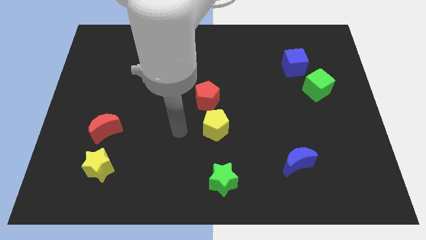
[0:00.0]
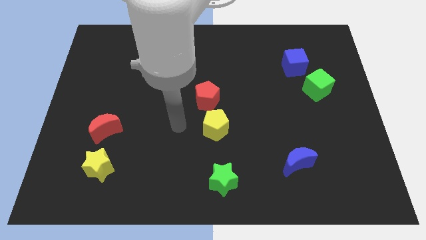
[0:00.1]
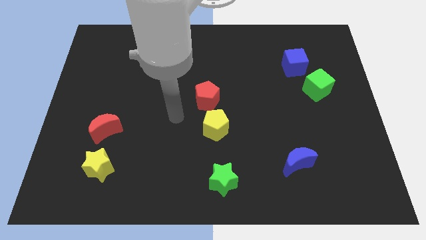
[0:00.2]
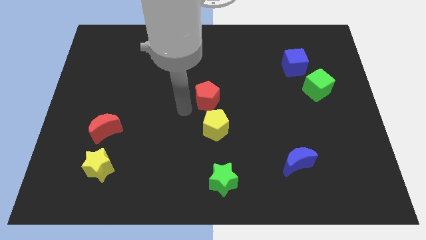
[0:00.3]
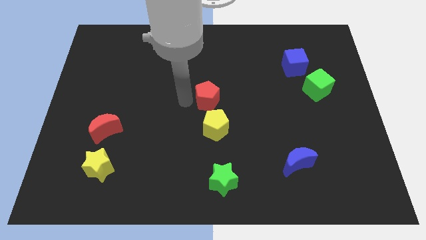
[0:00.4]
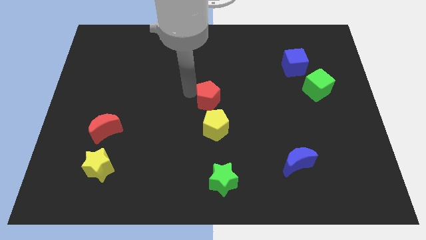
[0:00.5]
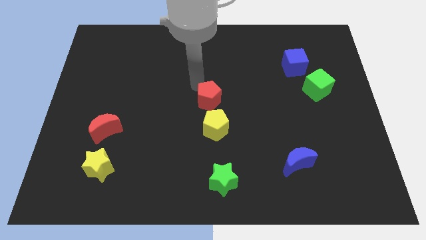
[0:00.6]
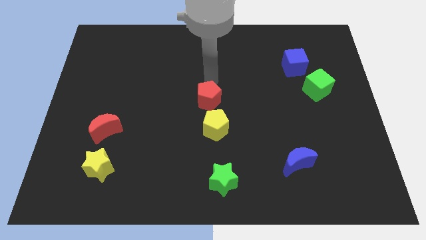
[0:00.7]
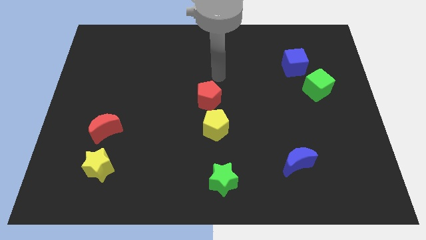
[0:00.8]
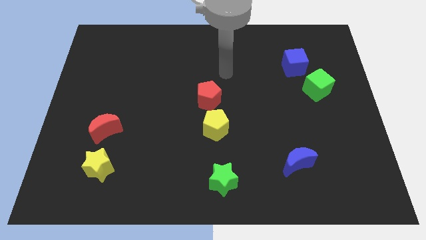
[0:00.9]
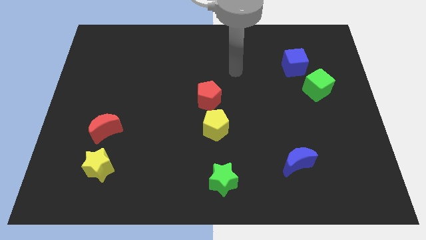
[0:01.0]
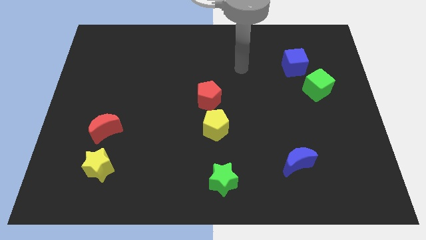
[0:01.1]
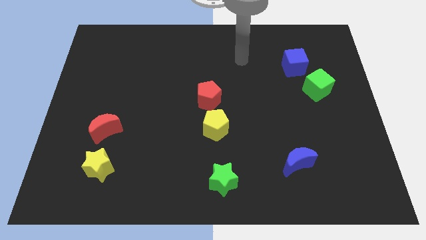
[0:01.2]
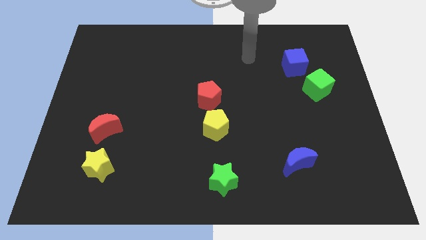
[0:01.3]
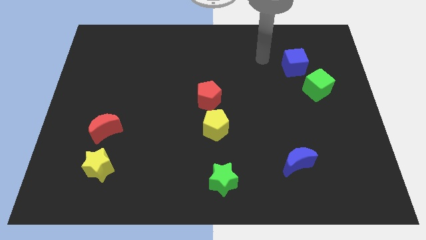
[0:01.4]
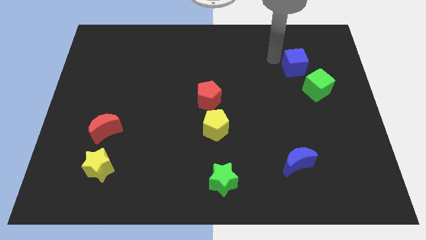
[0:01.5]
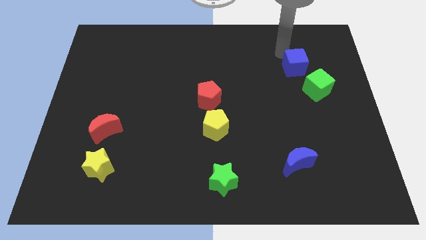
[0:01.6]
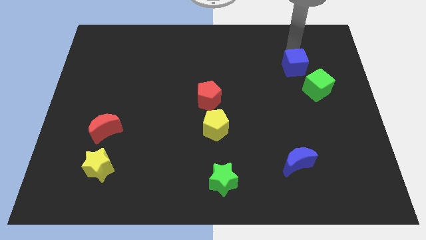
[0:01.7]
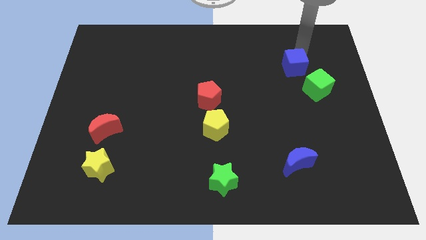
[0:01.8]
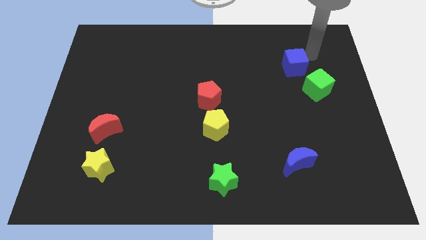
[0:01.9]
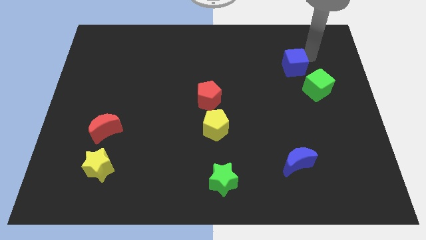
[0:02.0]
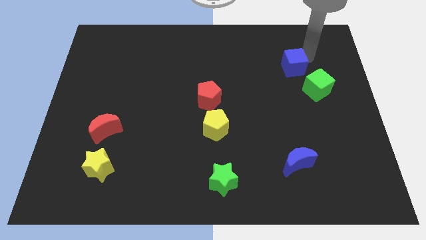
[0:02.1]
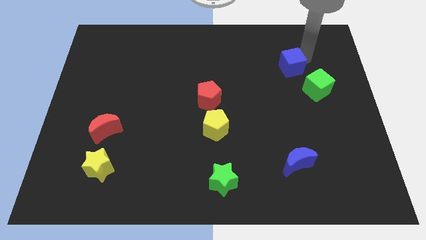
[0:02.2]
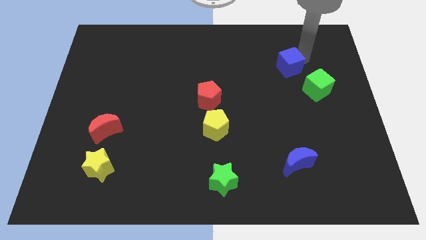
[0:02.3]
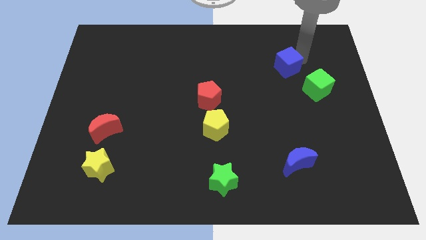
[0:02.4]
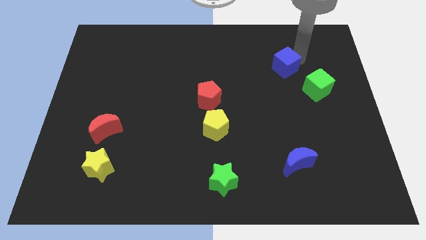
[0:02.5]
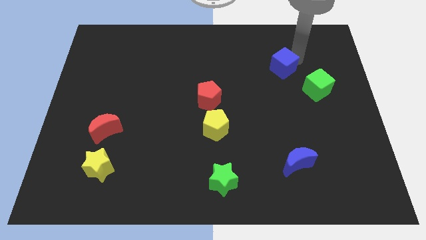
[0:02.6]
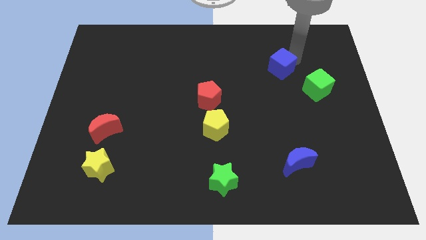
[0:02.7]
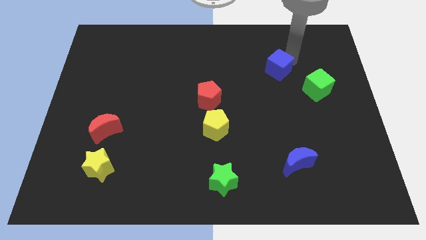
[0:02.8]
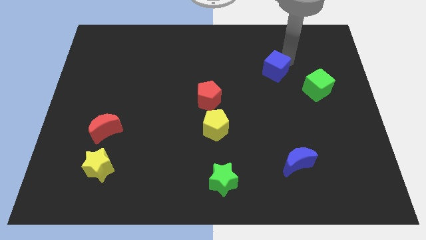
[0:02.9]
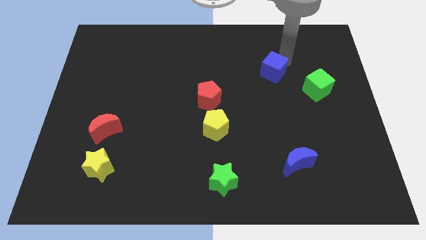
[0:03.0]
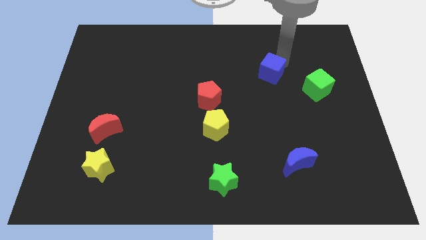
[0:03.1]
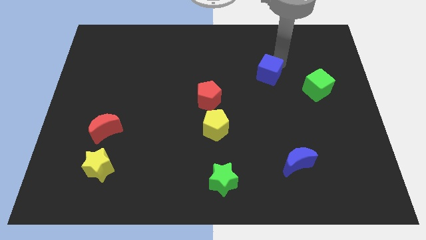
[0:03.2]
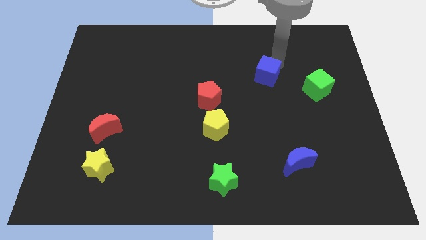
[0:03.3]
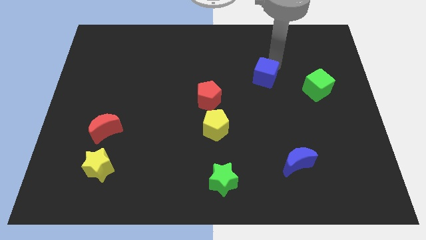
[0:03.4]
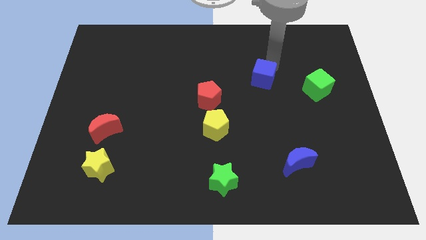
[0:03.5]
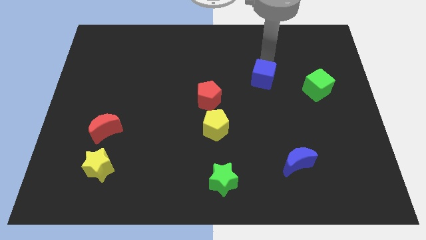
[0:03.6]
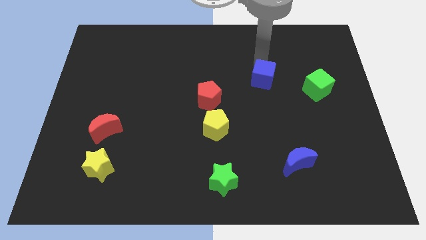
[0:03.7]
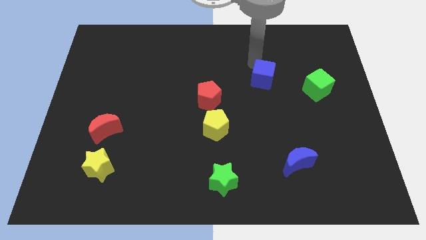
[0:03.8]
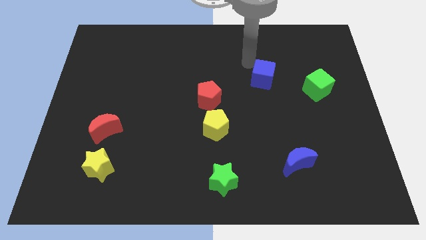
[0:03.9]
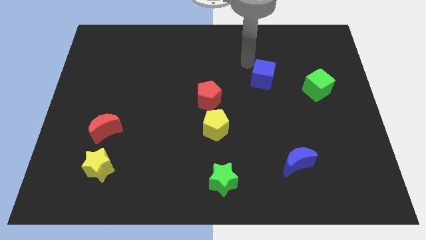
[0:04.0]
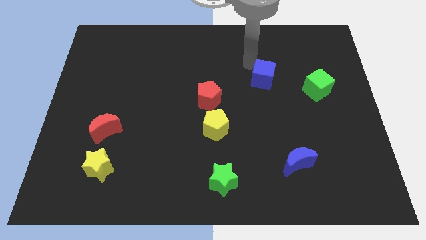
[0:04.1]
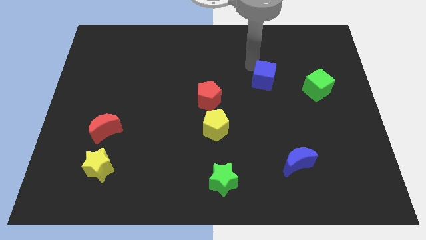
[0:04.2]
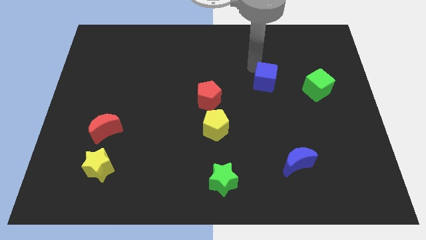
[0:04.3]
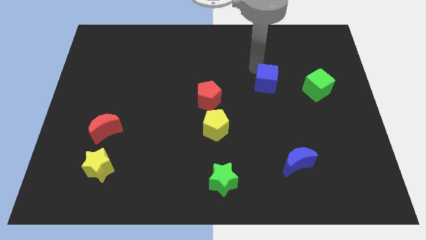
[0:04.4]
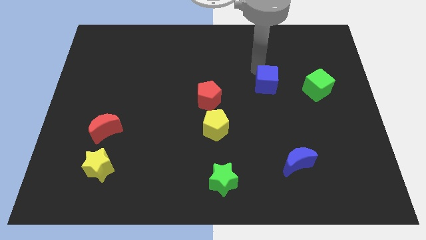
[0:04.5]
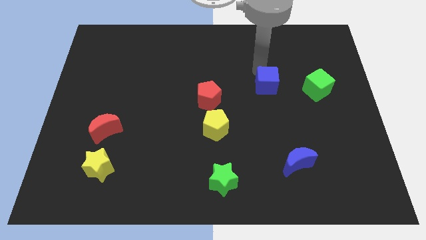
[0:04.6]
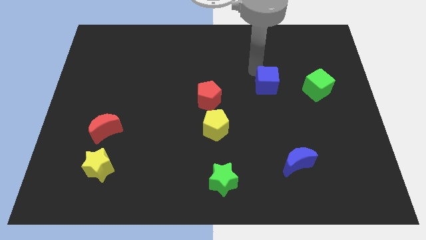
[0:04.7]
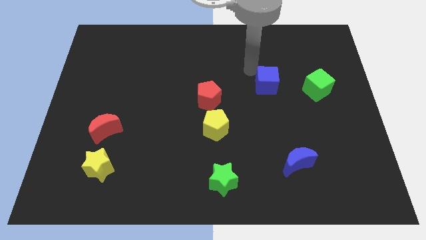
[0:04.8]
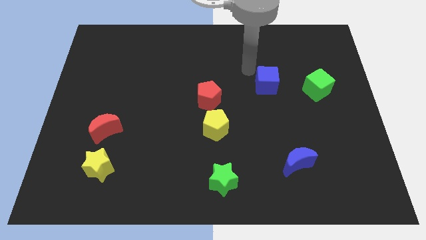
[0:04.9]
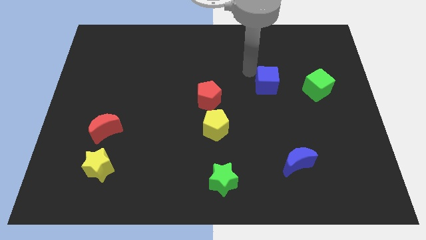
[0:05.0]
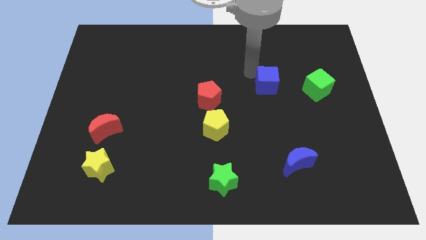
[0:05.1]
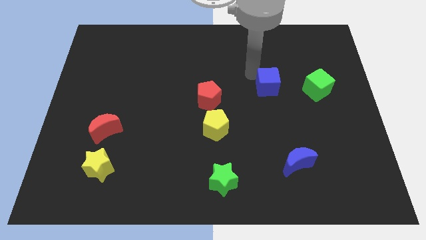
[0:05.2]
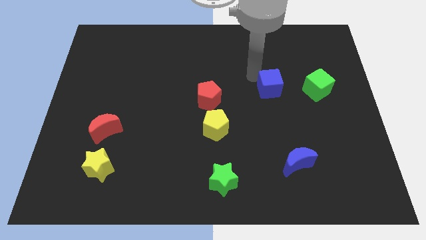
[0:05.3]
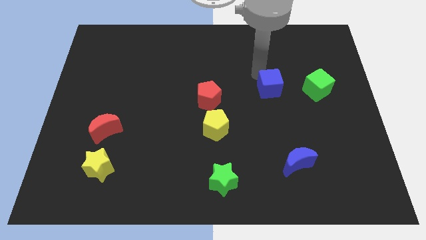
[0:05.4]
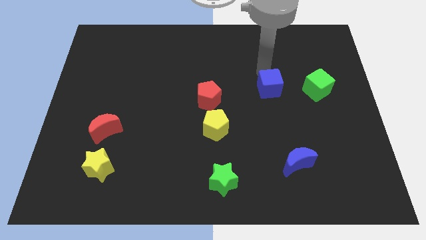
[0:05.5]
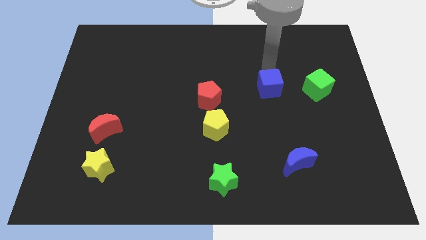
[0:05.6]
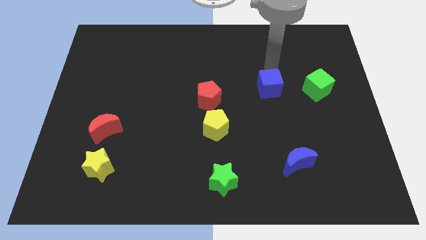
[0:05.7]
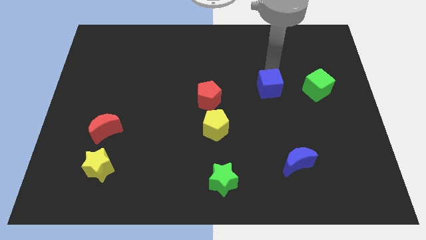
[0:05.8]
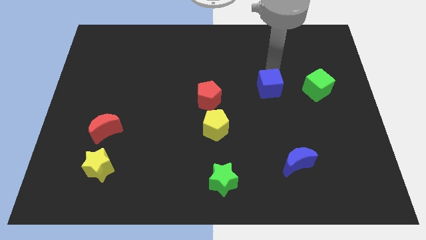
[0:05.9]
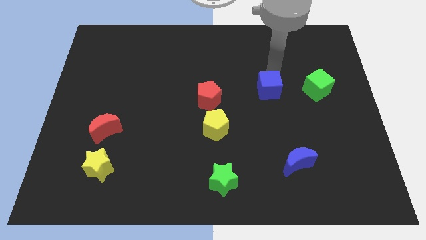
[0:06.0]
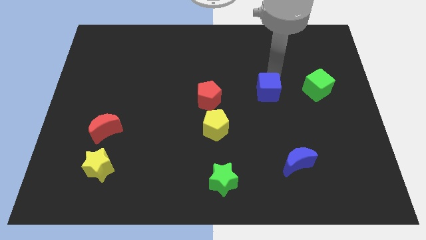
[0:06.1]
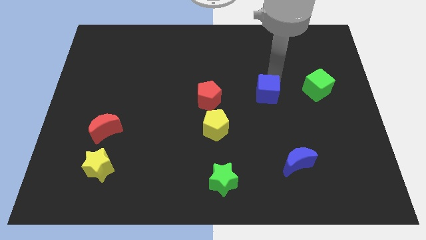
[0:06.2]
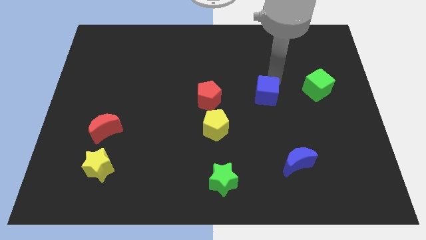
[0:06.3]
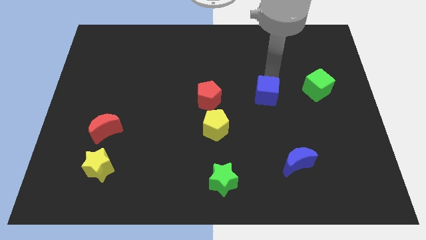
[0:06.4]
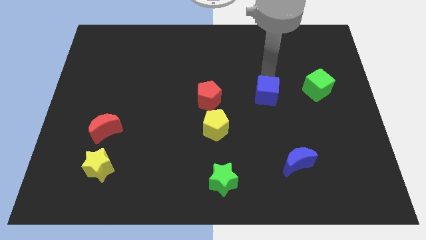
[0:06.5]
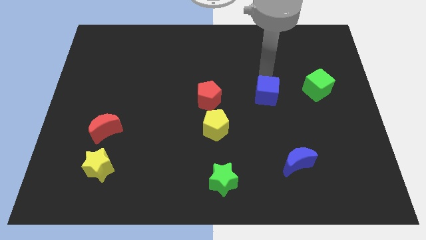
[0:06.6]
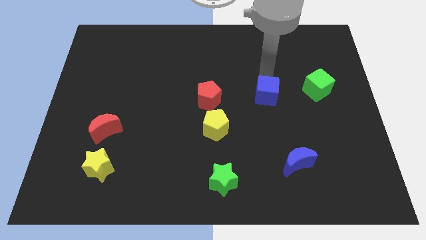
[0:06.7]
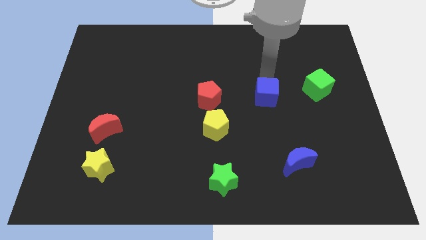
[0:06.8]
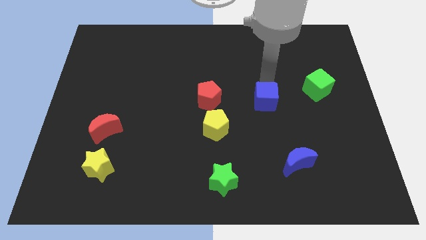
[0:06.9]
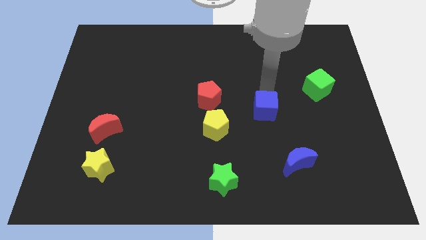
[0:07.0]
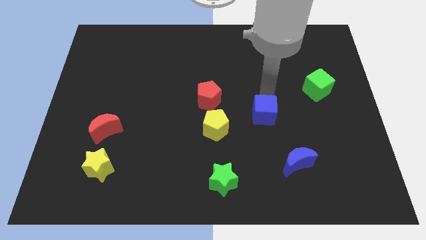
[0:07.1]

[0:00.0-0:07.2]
slide the blue cube right of the yellow pentagon
